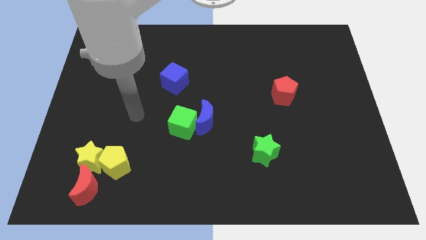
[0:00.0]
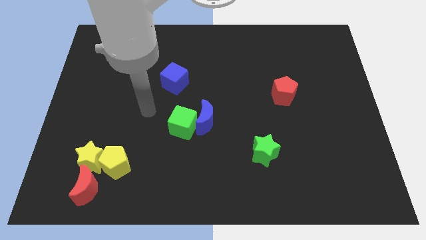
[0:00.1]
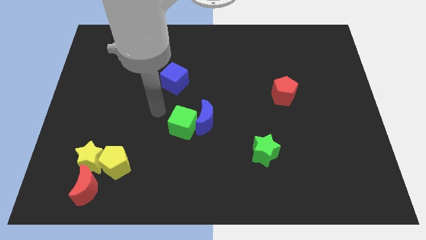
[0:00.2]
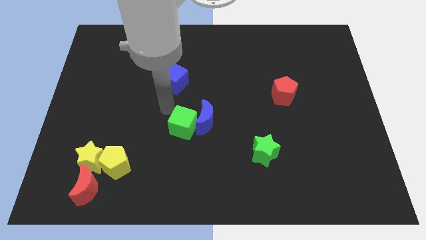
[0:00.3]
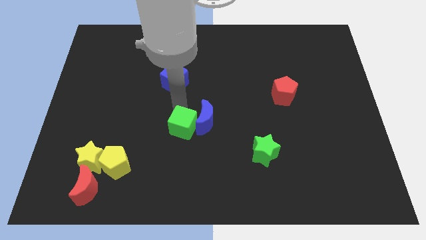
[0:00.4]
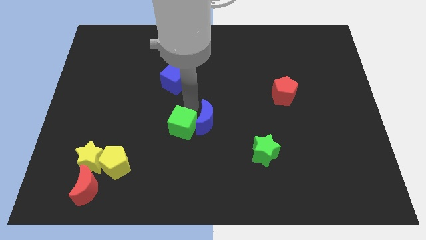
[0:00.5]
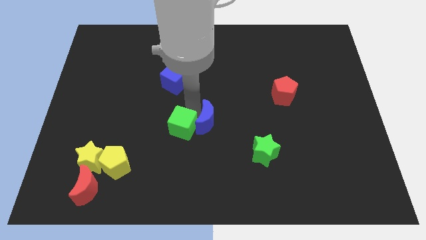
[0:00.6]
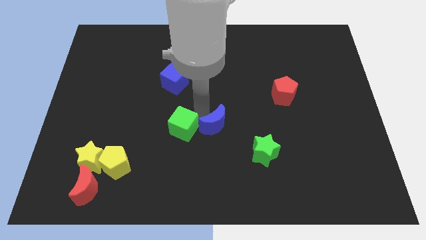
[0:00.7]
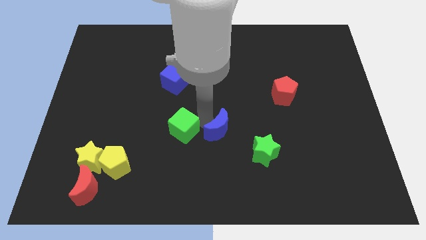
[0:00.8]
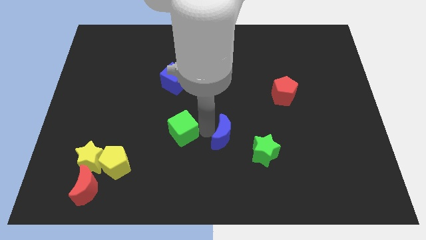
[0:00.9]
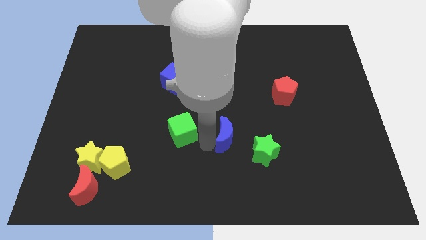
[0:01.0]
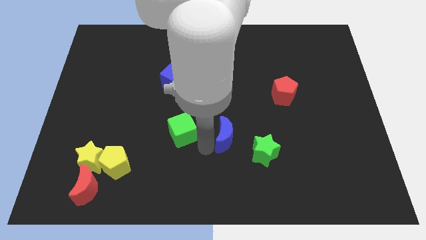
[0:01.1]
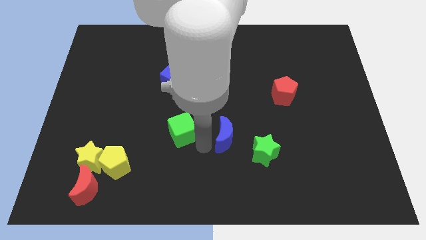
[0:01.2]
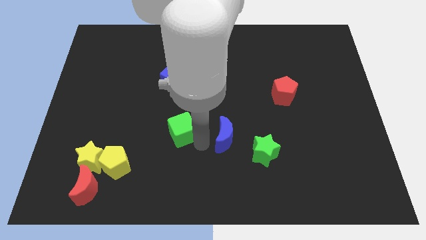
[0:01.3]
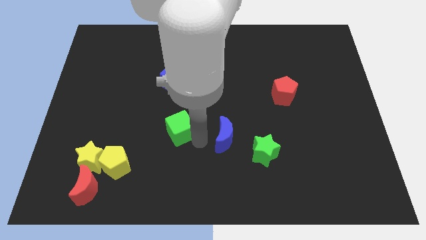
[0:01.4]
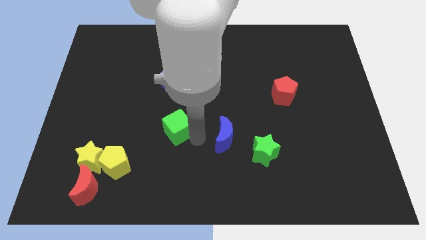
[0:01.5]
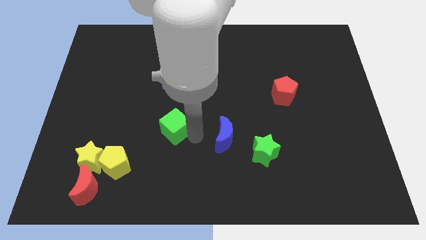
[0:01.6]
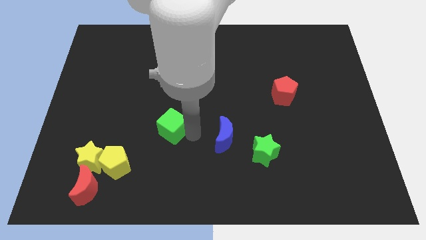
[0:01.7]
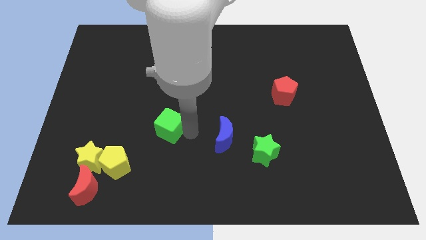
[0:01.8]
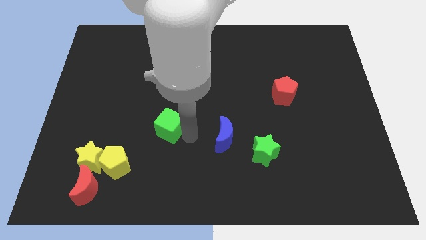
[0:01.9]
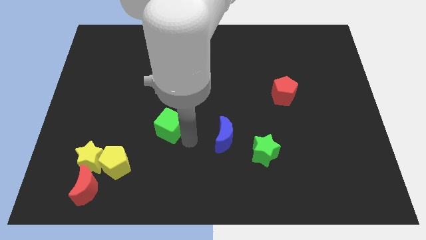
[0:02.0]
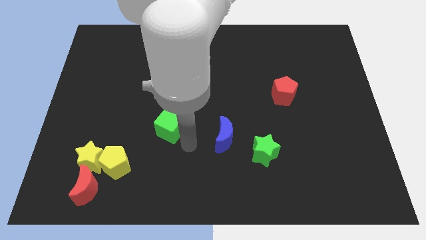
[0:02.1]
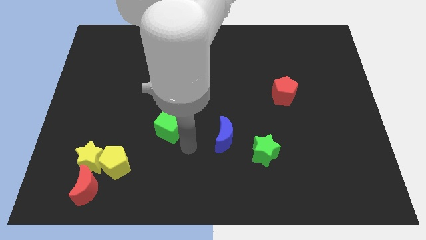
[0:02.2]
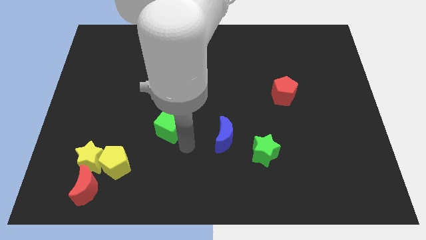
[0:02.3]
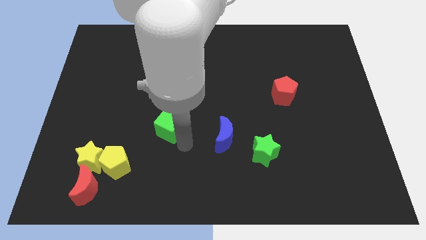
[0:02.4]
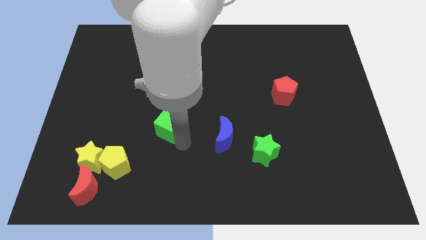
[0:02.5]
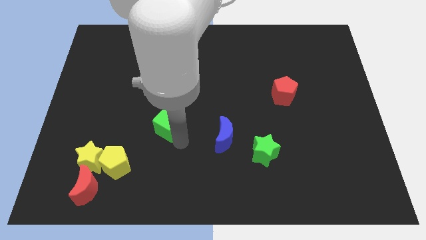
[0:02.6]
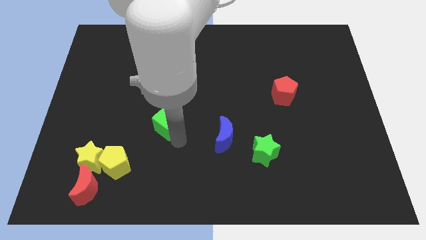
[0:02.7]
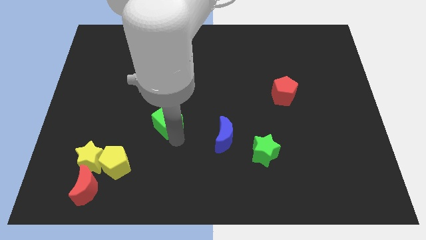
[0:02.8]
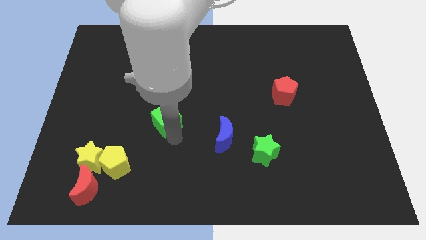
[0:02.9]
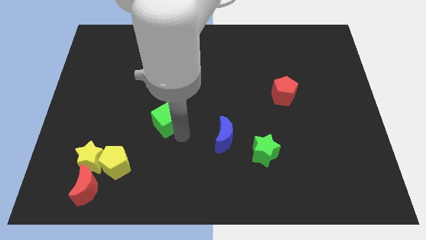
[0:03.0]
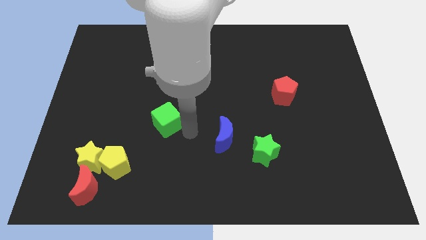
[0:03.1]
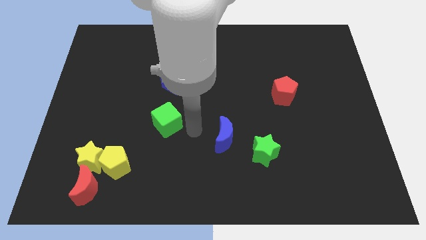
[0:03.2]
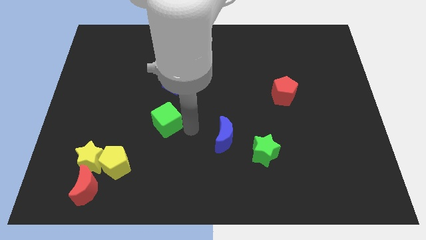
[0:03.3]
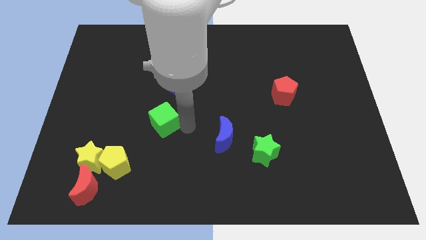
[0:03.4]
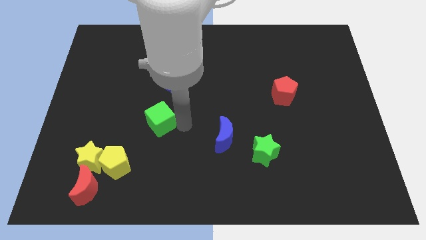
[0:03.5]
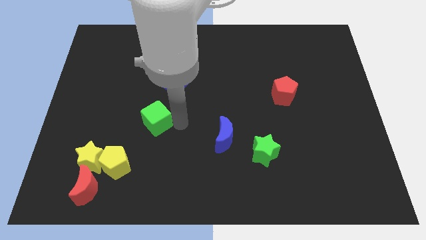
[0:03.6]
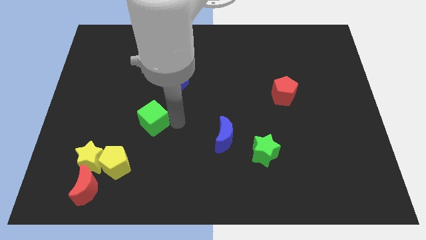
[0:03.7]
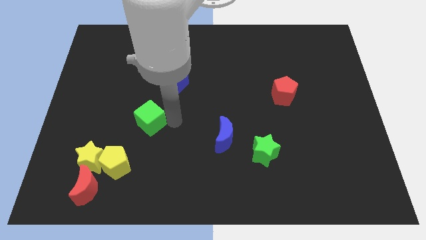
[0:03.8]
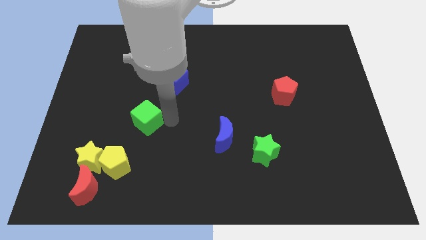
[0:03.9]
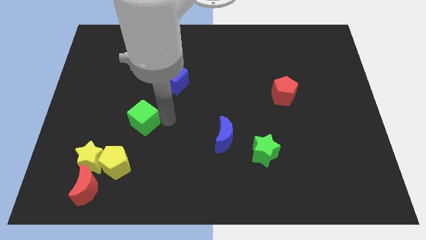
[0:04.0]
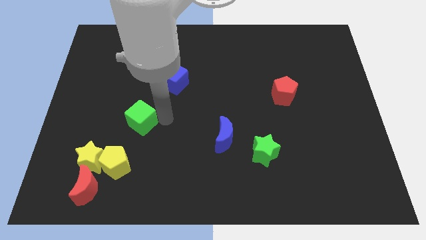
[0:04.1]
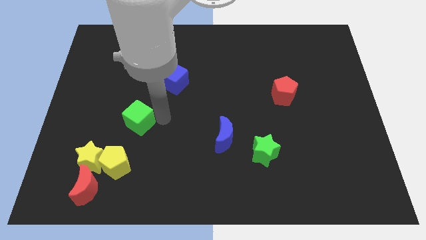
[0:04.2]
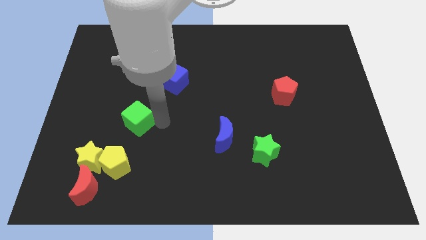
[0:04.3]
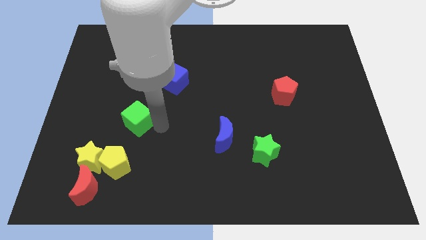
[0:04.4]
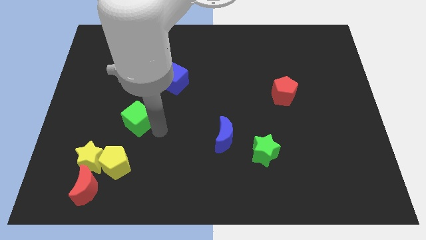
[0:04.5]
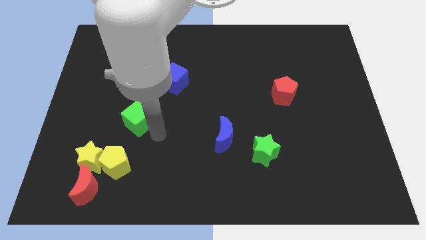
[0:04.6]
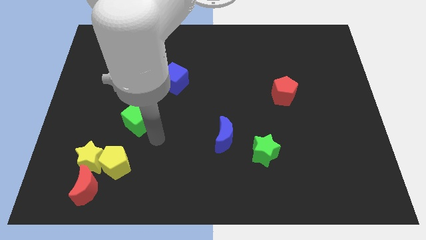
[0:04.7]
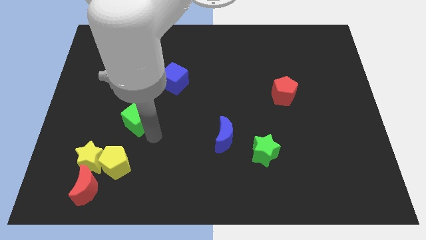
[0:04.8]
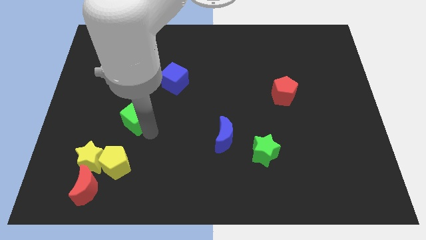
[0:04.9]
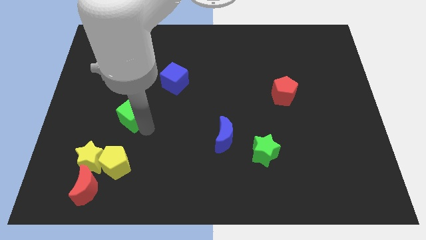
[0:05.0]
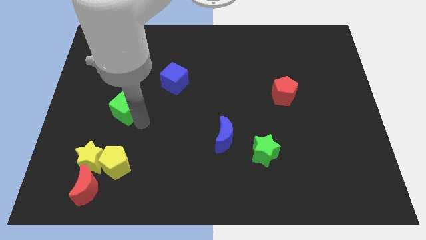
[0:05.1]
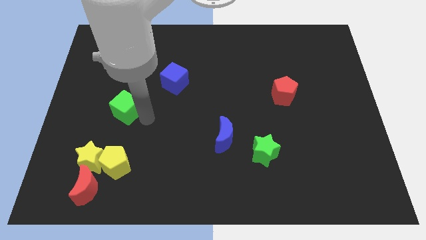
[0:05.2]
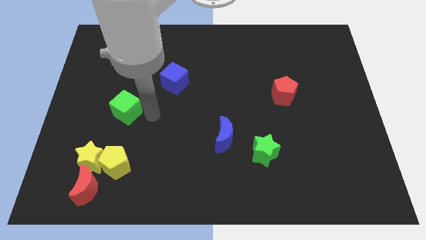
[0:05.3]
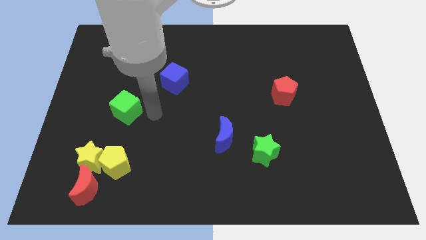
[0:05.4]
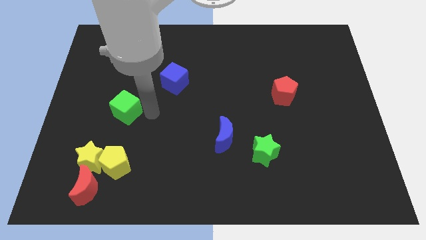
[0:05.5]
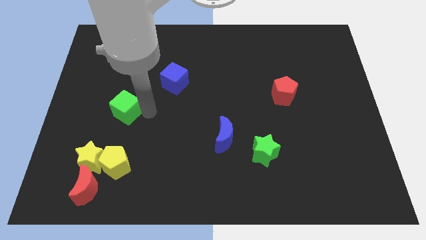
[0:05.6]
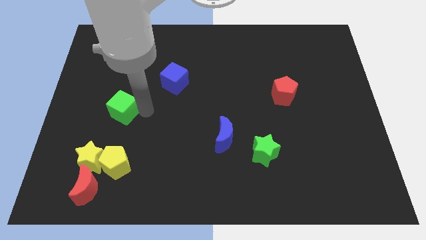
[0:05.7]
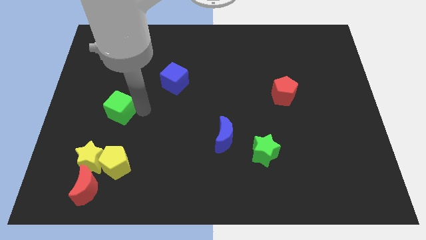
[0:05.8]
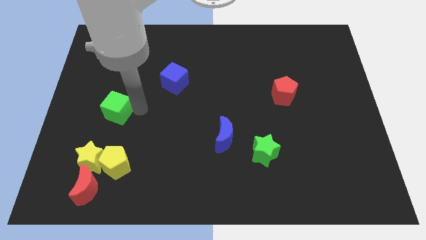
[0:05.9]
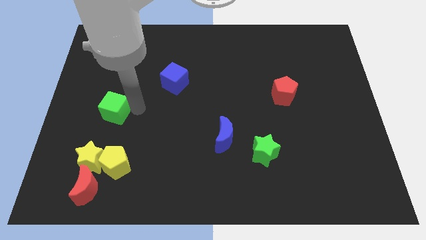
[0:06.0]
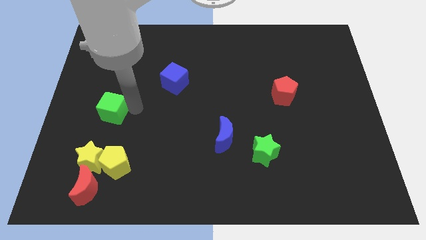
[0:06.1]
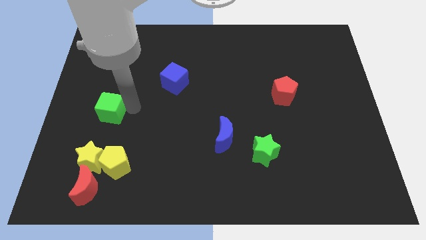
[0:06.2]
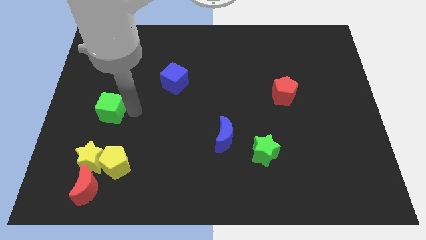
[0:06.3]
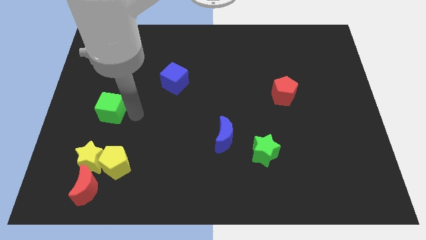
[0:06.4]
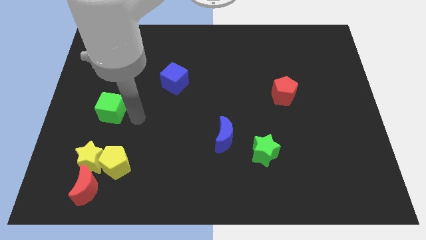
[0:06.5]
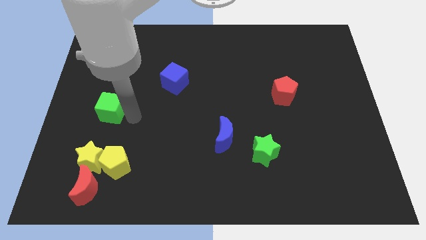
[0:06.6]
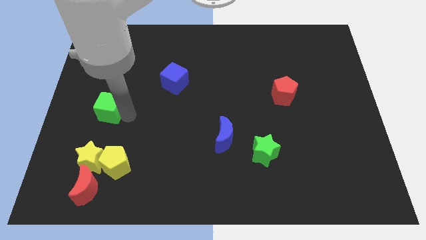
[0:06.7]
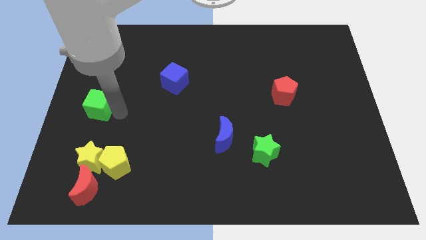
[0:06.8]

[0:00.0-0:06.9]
move the green cube to the left side of the board
